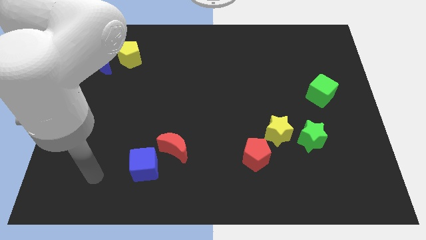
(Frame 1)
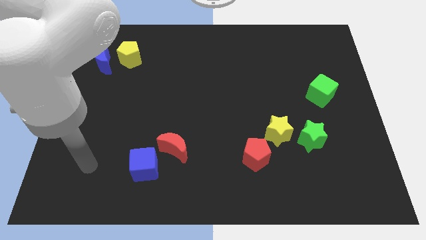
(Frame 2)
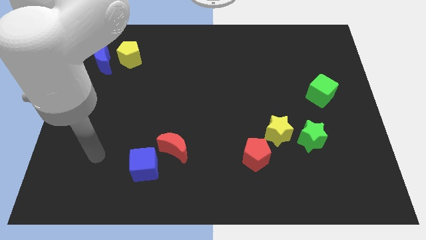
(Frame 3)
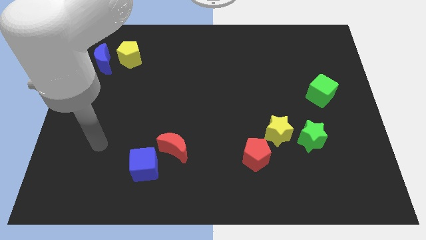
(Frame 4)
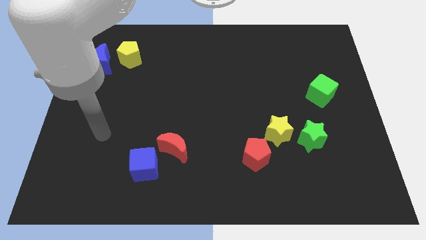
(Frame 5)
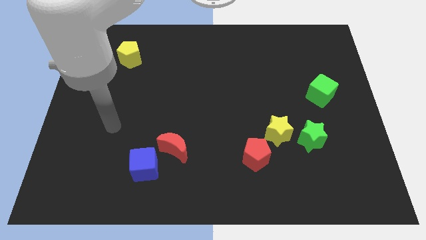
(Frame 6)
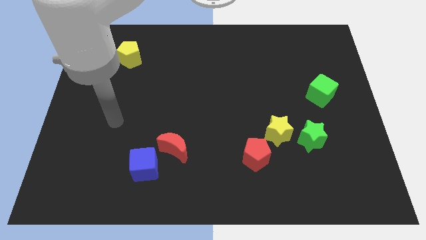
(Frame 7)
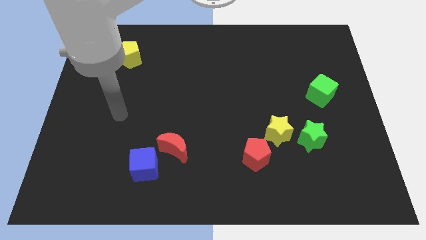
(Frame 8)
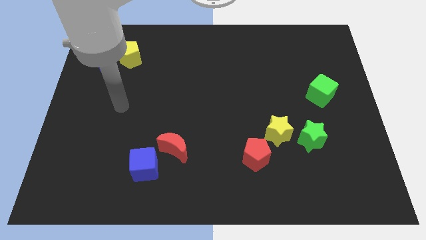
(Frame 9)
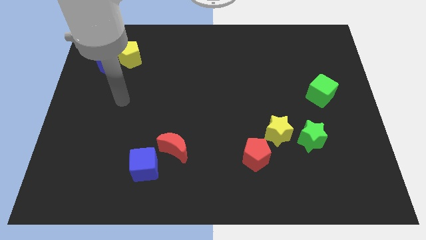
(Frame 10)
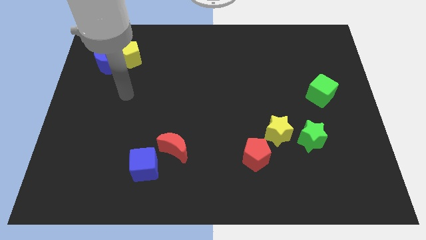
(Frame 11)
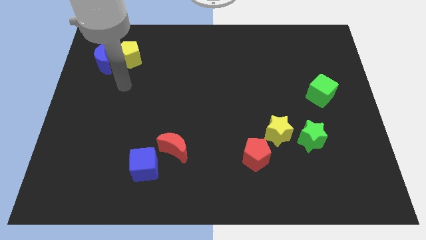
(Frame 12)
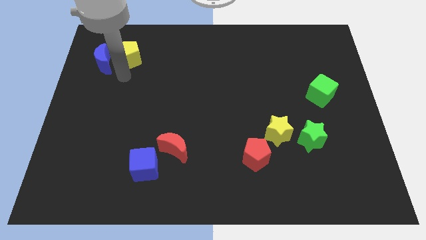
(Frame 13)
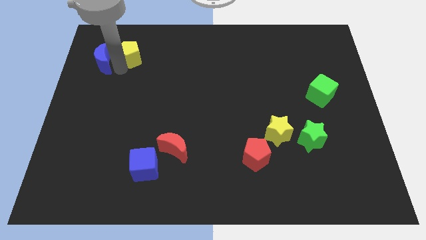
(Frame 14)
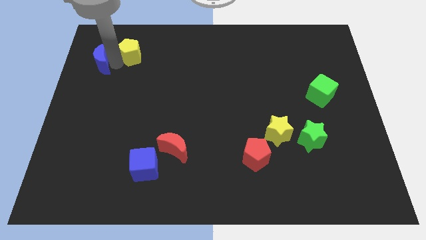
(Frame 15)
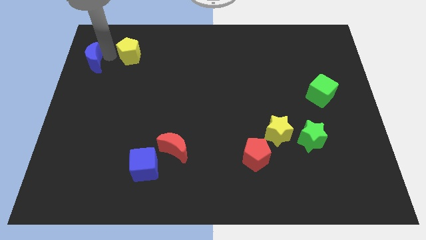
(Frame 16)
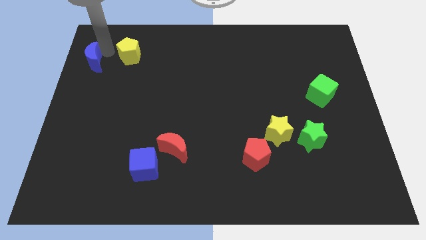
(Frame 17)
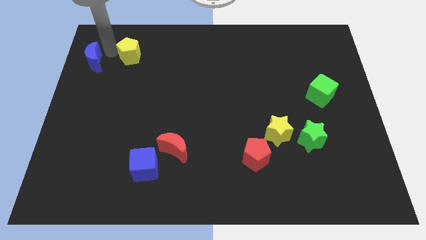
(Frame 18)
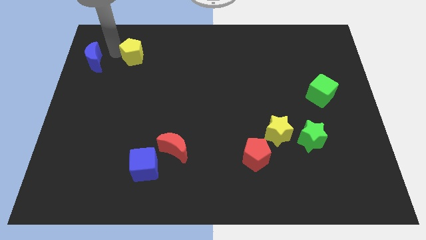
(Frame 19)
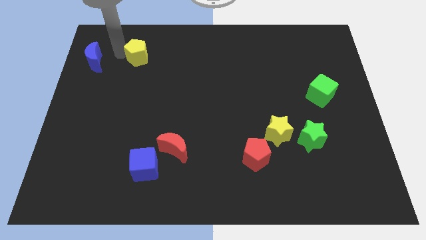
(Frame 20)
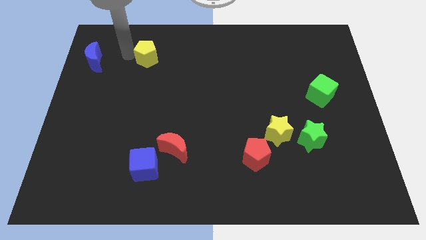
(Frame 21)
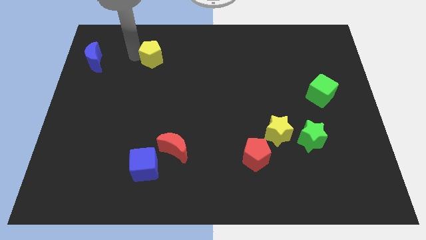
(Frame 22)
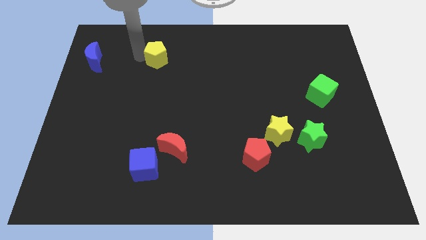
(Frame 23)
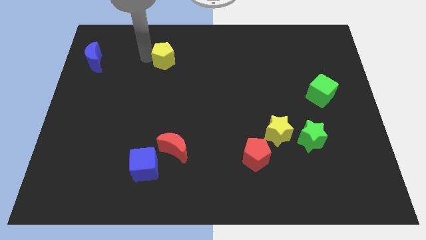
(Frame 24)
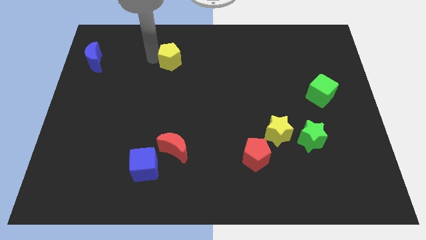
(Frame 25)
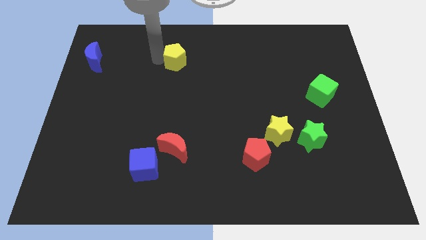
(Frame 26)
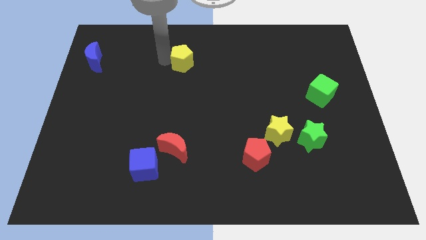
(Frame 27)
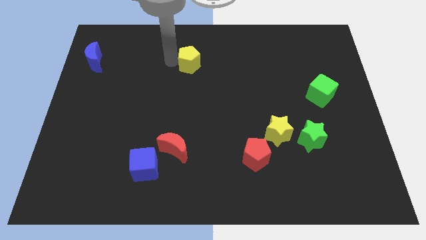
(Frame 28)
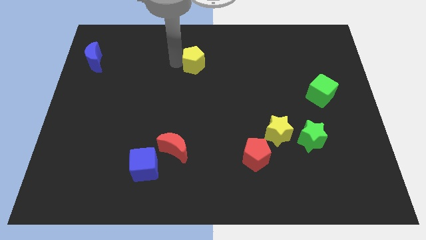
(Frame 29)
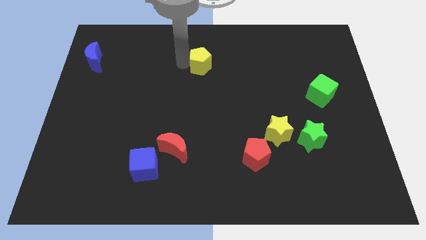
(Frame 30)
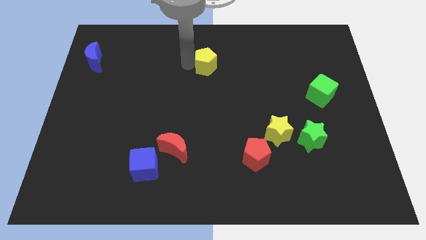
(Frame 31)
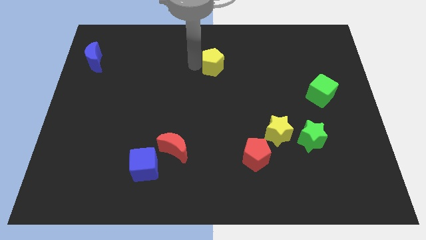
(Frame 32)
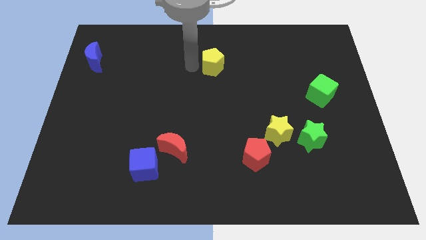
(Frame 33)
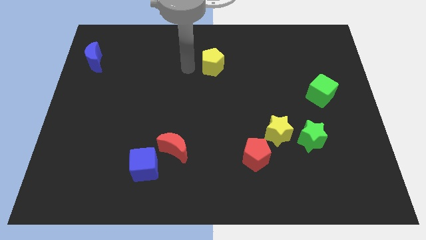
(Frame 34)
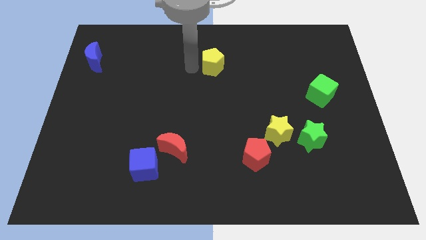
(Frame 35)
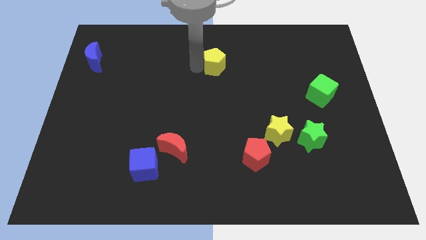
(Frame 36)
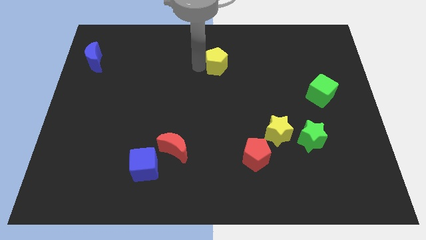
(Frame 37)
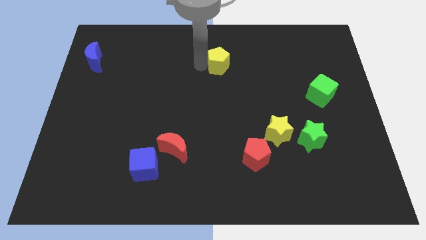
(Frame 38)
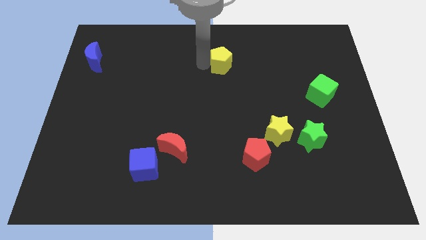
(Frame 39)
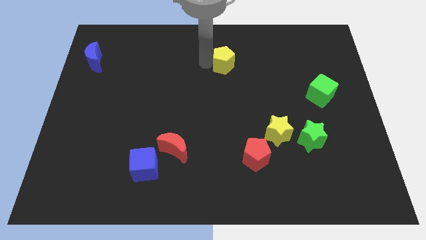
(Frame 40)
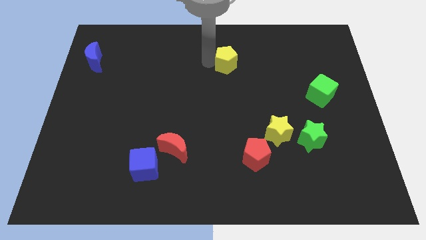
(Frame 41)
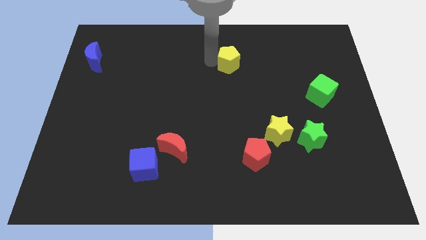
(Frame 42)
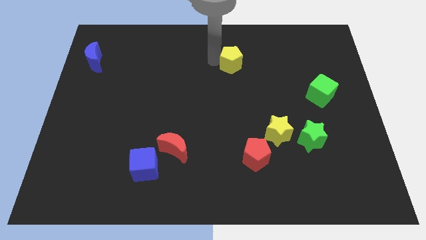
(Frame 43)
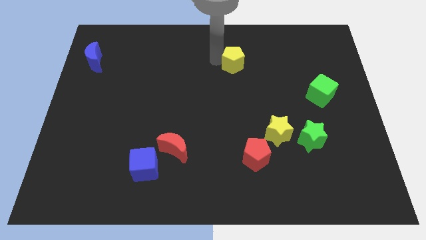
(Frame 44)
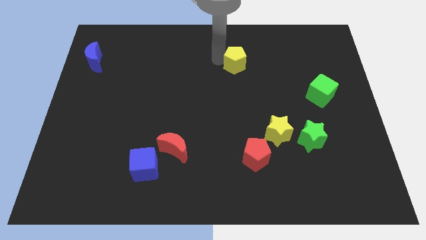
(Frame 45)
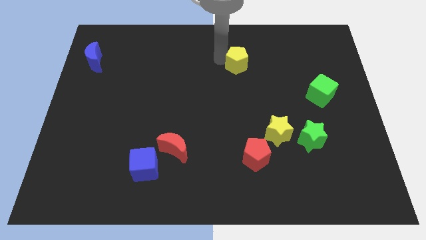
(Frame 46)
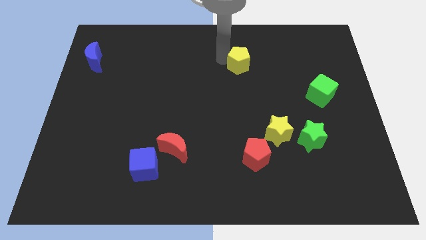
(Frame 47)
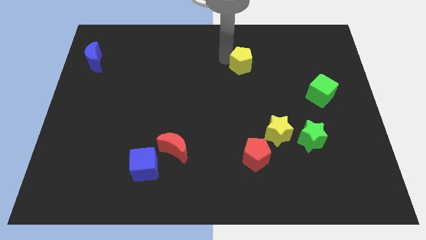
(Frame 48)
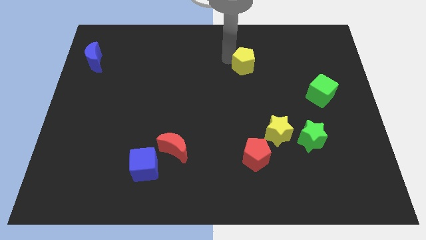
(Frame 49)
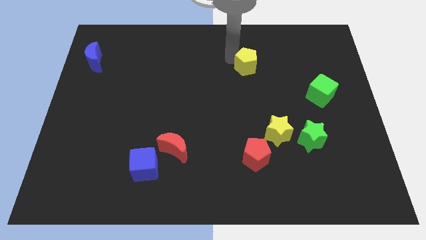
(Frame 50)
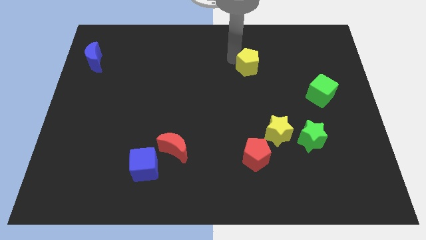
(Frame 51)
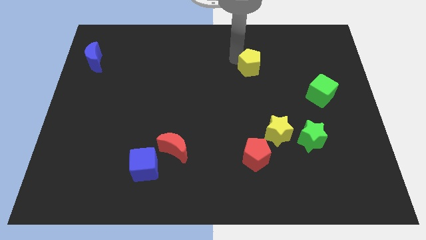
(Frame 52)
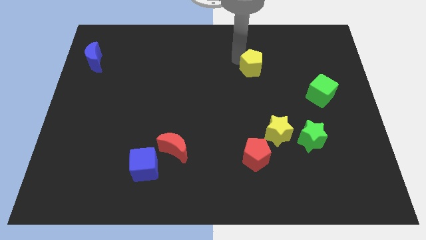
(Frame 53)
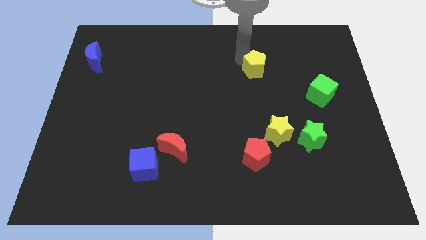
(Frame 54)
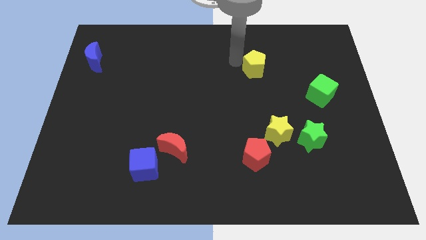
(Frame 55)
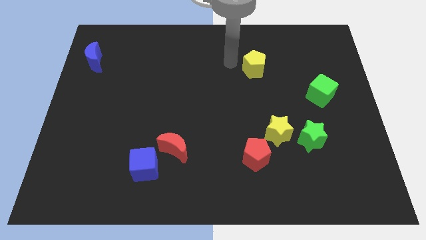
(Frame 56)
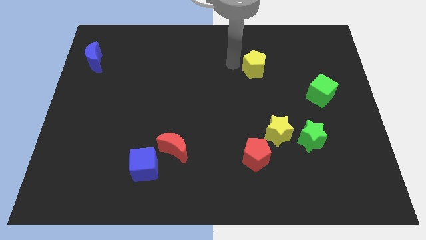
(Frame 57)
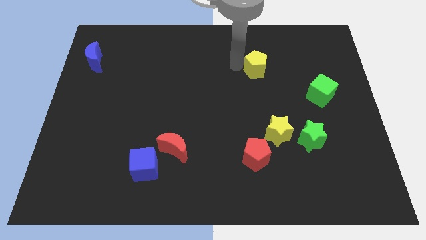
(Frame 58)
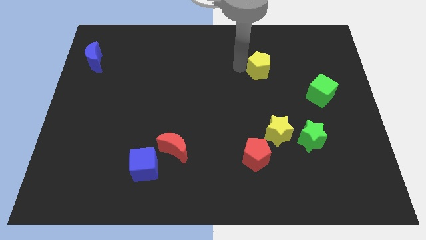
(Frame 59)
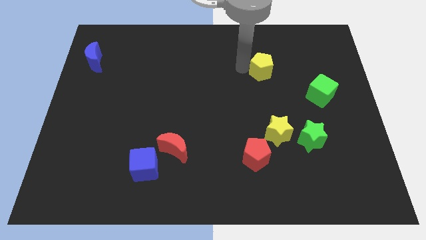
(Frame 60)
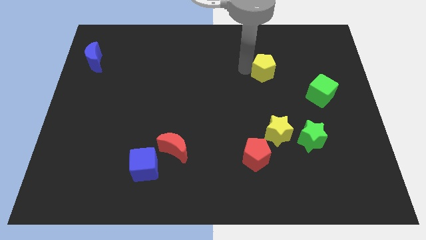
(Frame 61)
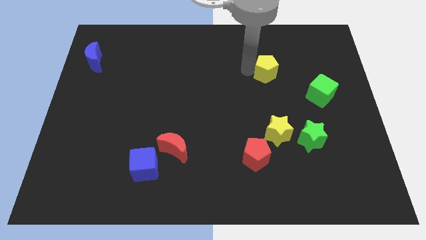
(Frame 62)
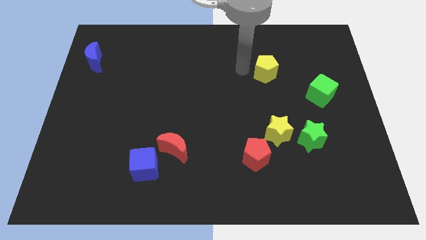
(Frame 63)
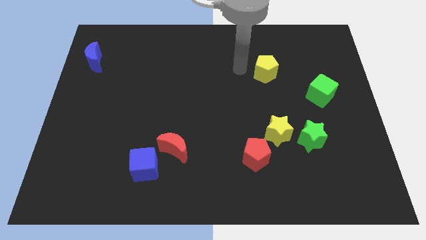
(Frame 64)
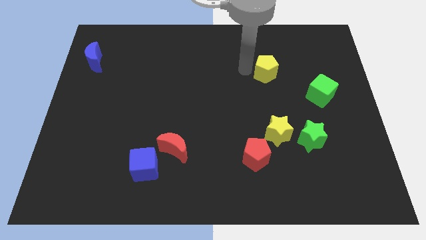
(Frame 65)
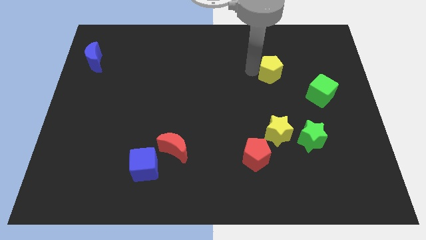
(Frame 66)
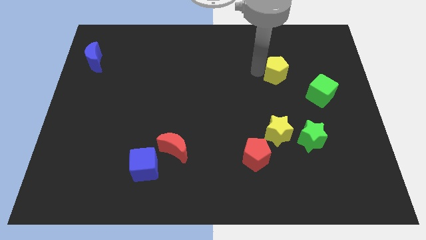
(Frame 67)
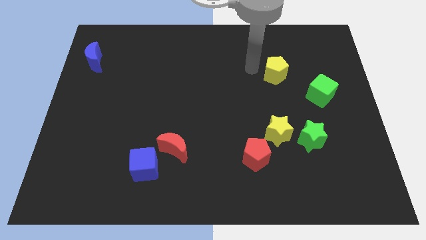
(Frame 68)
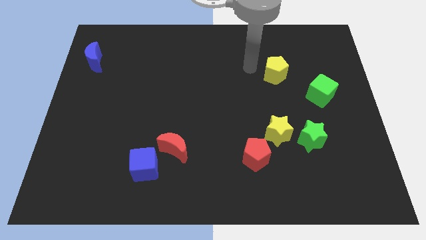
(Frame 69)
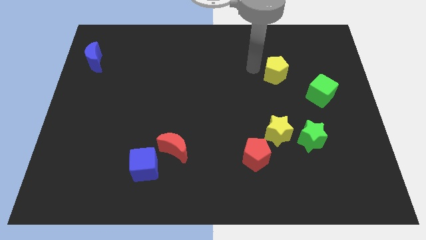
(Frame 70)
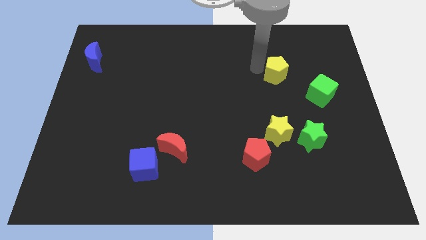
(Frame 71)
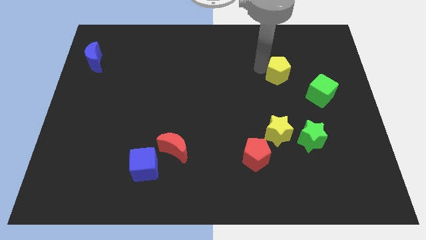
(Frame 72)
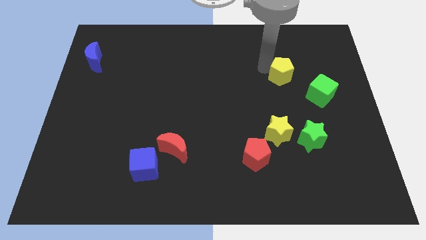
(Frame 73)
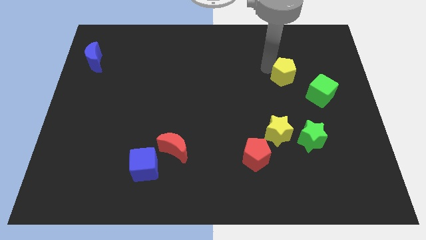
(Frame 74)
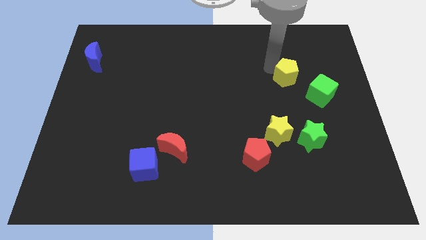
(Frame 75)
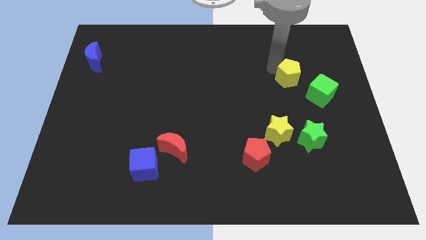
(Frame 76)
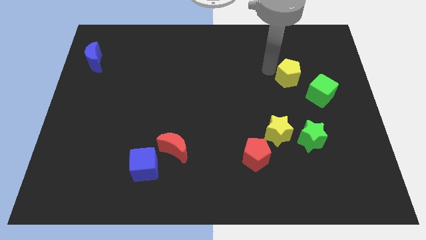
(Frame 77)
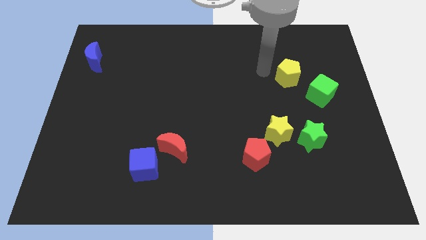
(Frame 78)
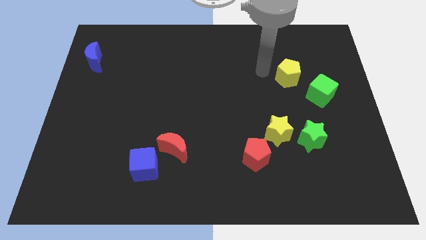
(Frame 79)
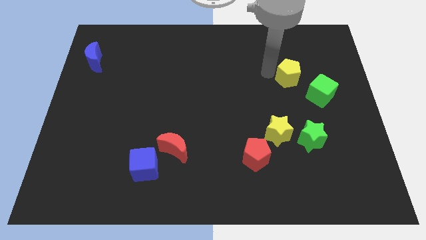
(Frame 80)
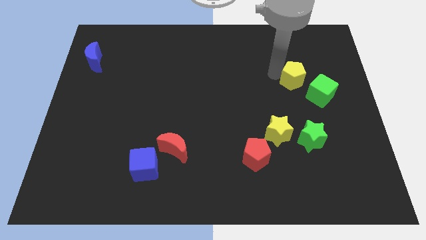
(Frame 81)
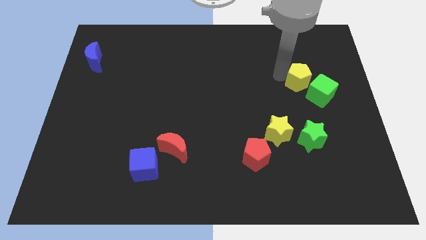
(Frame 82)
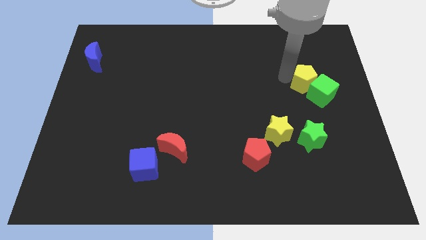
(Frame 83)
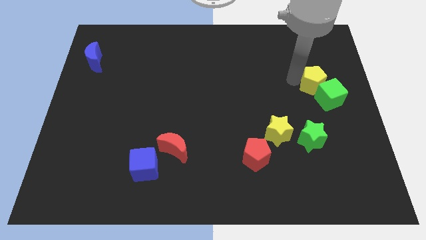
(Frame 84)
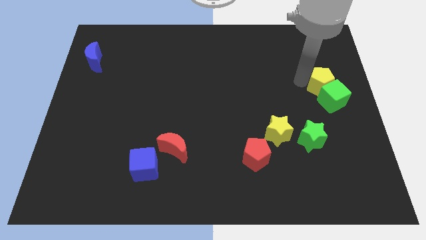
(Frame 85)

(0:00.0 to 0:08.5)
put the yellow pentagon to the right side of the board
